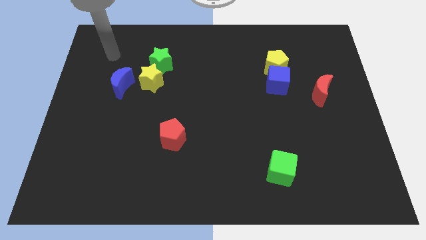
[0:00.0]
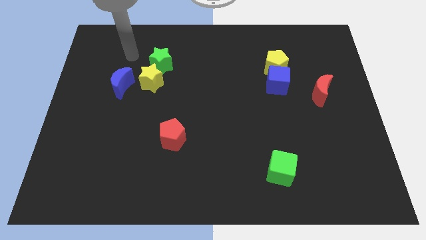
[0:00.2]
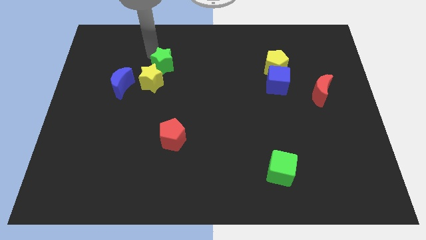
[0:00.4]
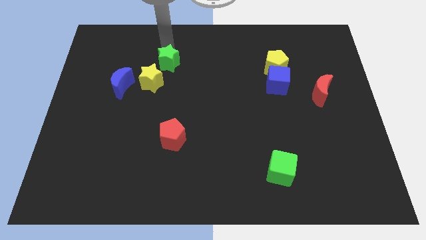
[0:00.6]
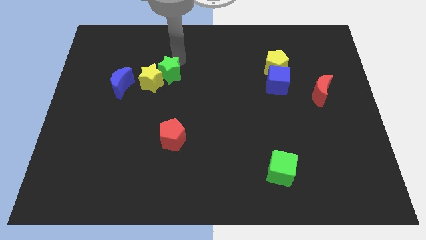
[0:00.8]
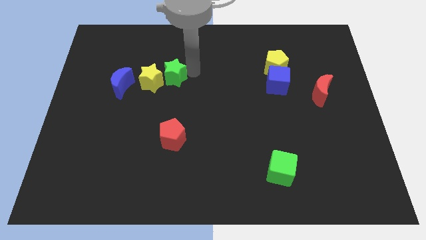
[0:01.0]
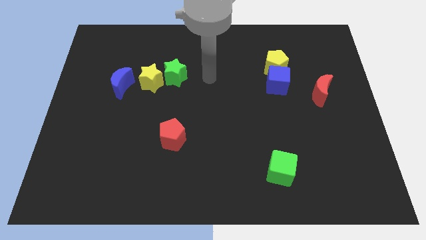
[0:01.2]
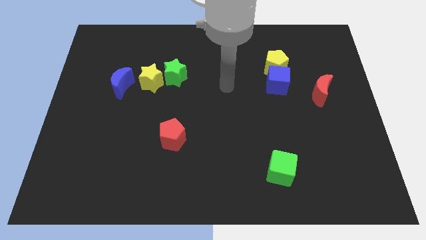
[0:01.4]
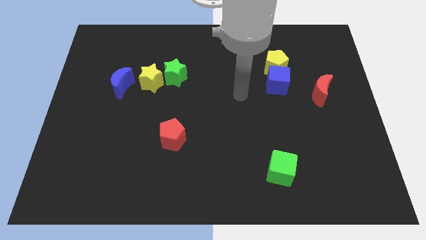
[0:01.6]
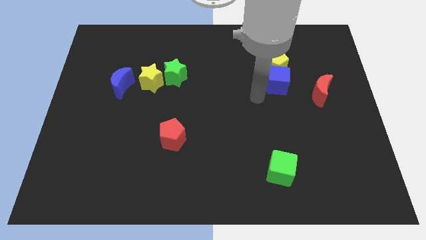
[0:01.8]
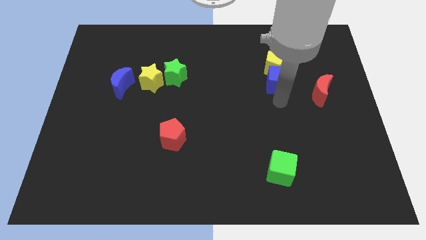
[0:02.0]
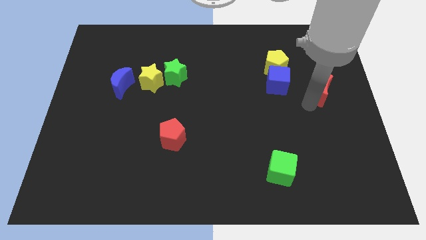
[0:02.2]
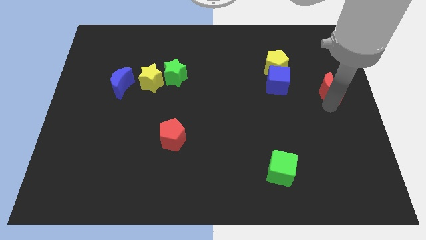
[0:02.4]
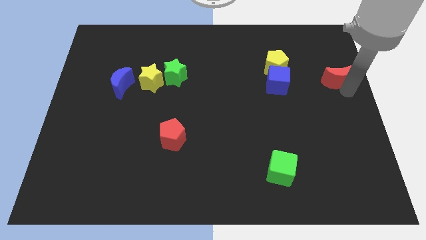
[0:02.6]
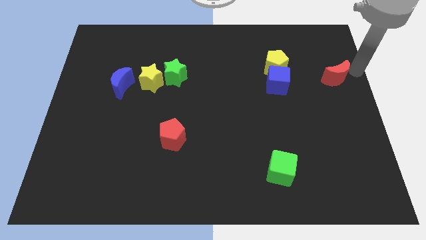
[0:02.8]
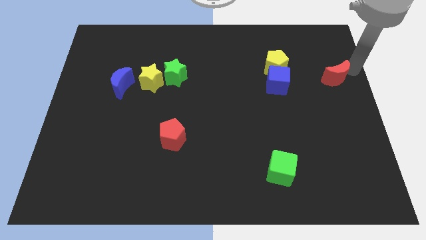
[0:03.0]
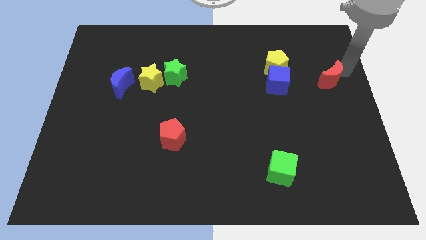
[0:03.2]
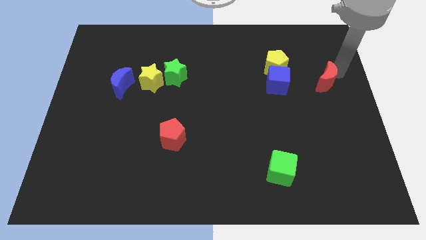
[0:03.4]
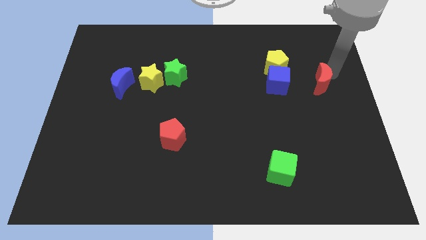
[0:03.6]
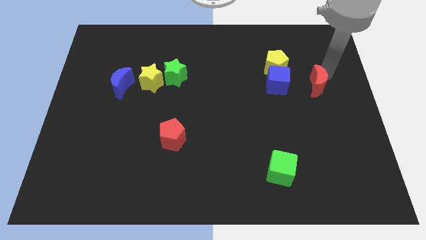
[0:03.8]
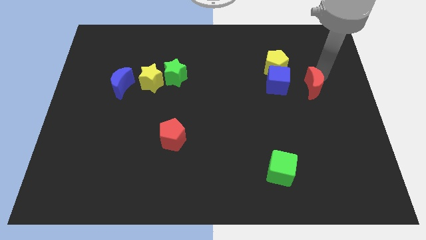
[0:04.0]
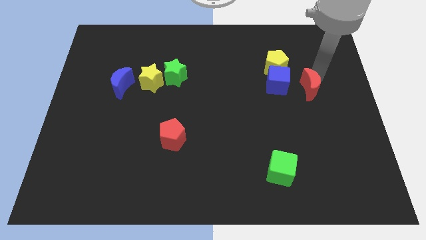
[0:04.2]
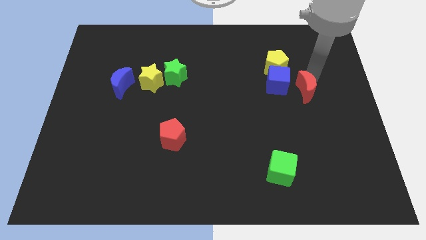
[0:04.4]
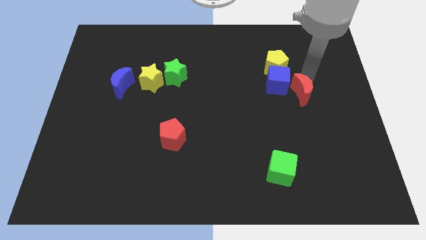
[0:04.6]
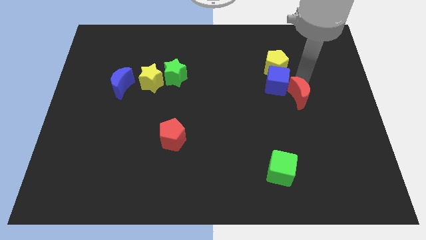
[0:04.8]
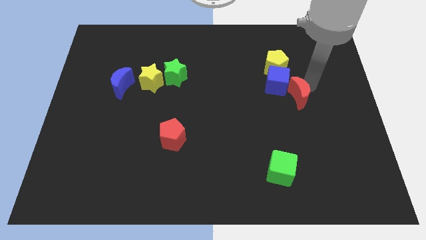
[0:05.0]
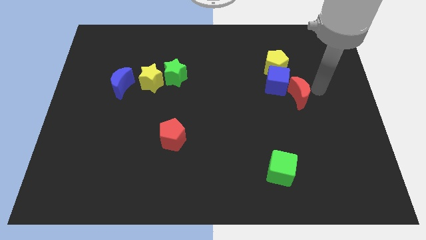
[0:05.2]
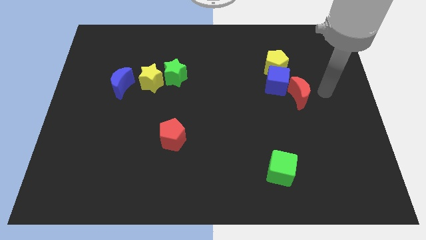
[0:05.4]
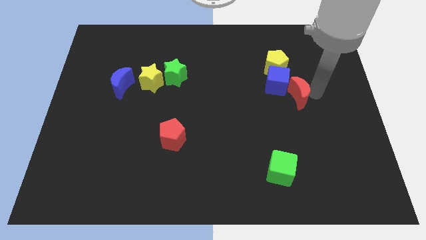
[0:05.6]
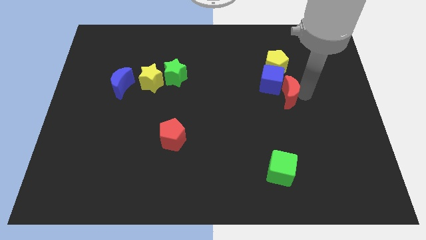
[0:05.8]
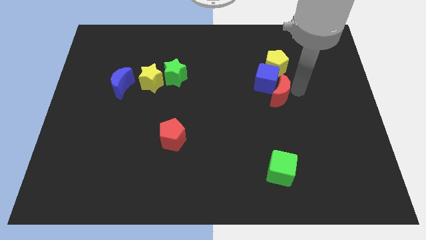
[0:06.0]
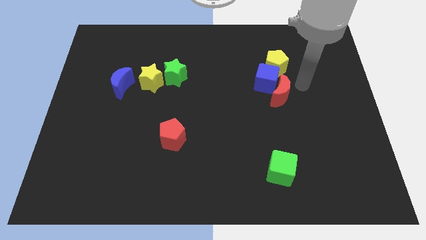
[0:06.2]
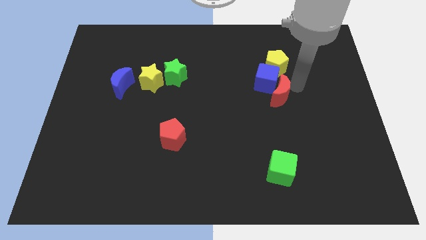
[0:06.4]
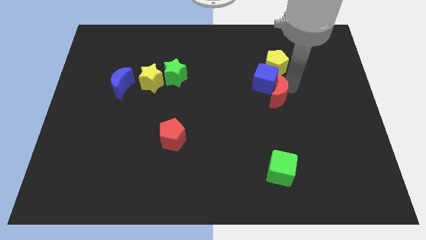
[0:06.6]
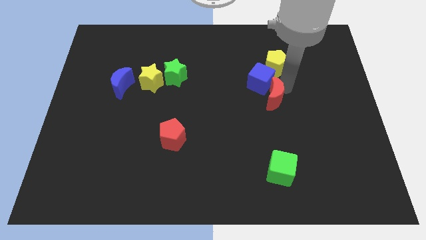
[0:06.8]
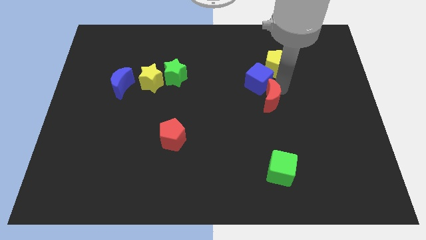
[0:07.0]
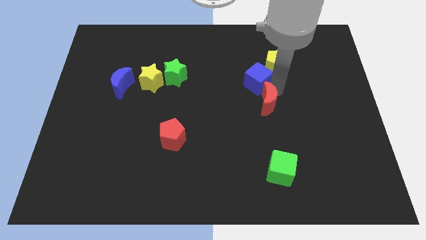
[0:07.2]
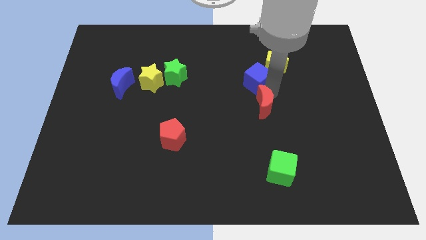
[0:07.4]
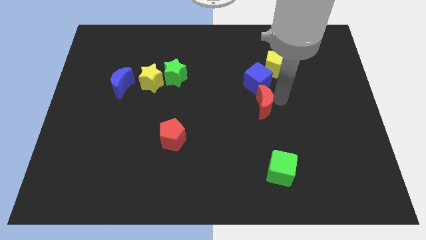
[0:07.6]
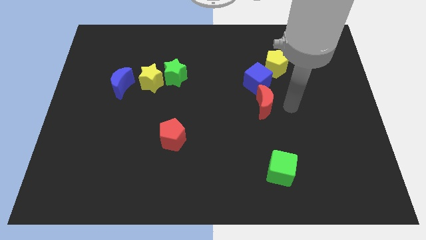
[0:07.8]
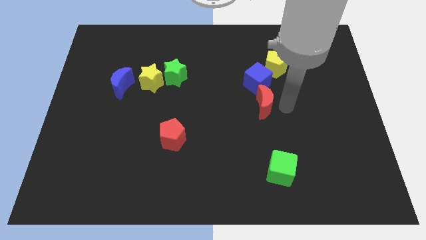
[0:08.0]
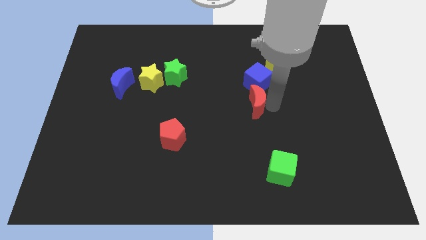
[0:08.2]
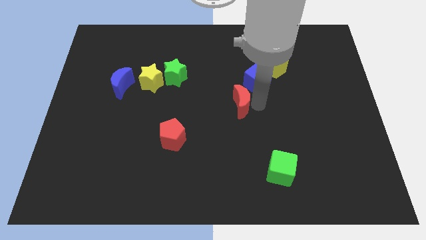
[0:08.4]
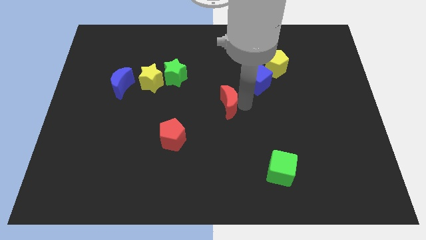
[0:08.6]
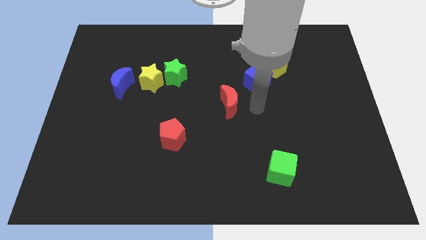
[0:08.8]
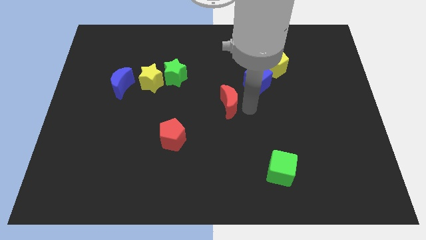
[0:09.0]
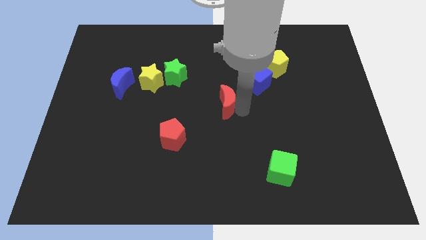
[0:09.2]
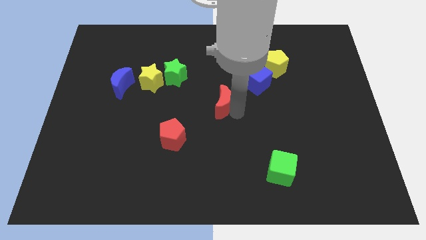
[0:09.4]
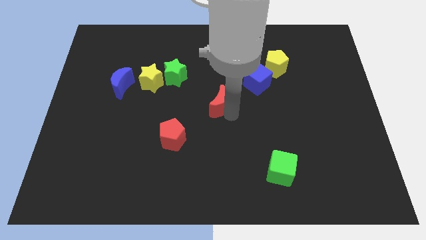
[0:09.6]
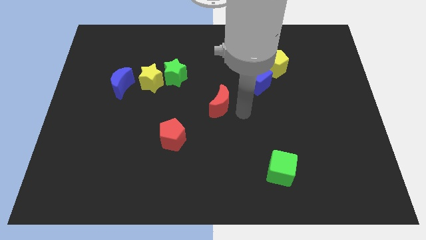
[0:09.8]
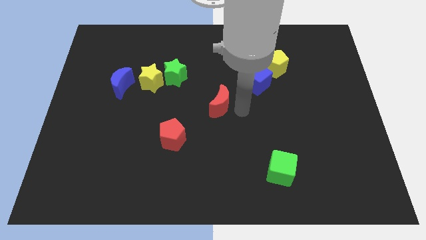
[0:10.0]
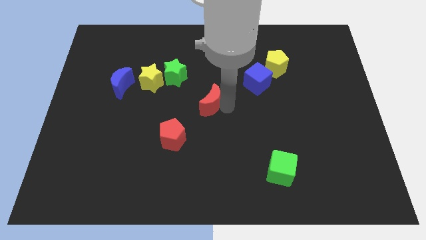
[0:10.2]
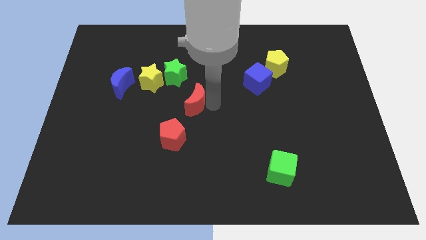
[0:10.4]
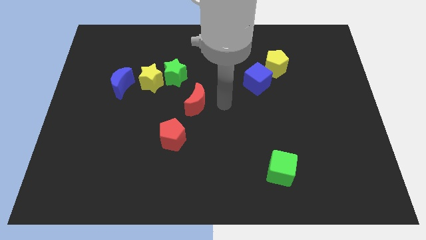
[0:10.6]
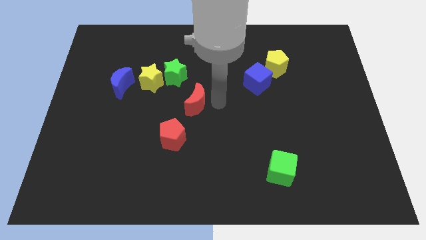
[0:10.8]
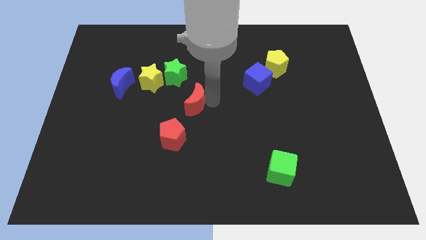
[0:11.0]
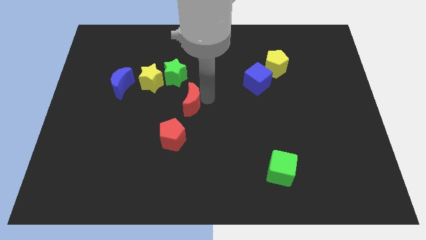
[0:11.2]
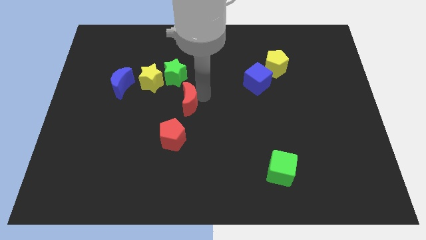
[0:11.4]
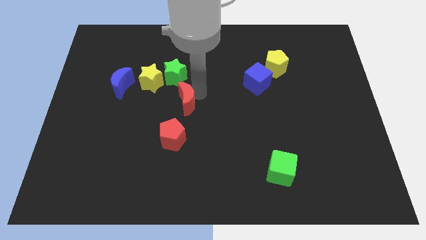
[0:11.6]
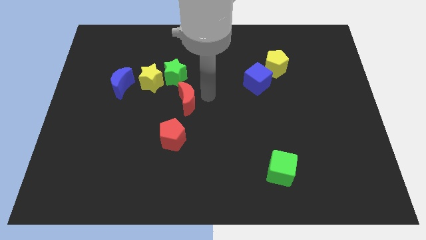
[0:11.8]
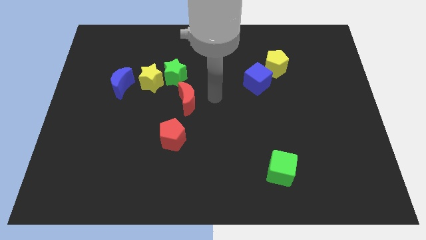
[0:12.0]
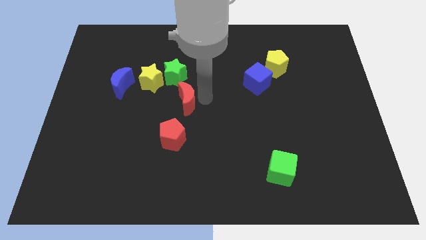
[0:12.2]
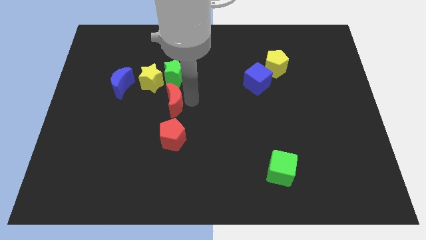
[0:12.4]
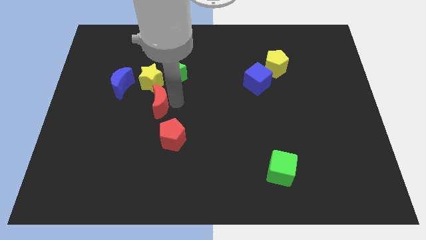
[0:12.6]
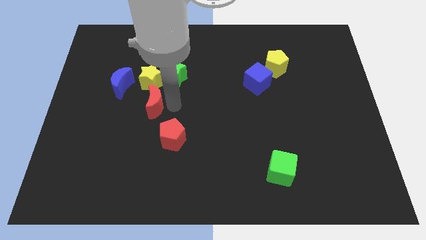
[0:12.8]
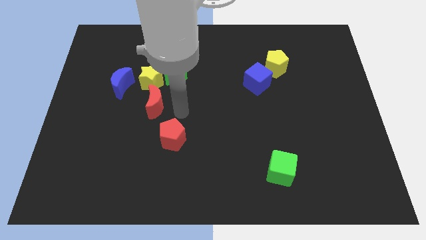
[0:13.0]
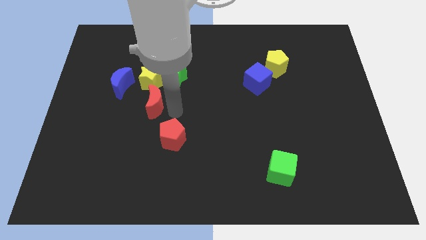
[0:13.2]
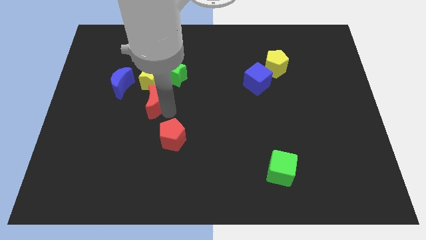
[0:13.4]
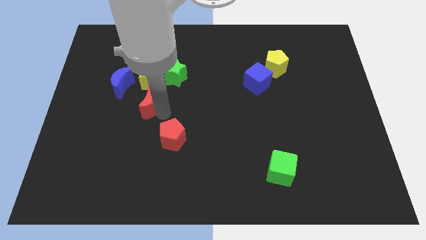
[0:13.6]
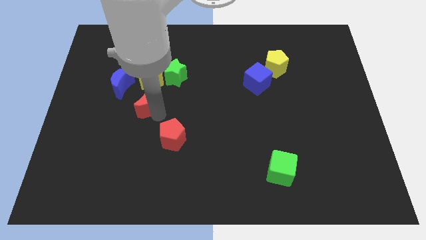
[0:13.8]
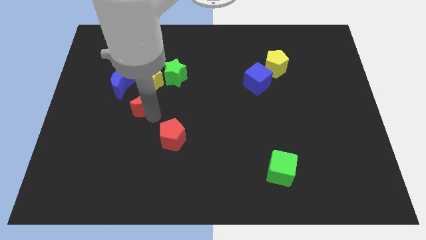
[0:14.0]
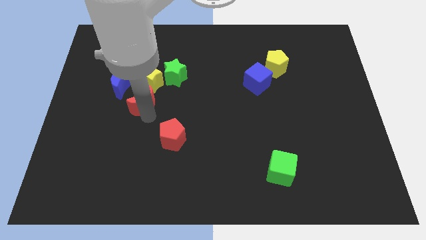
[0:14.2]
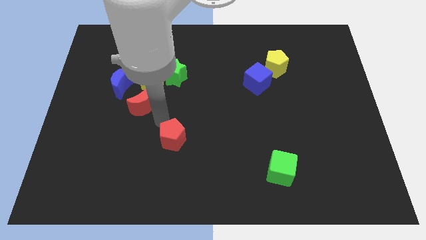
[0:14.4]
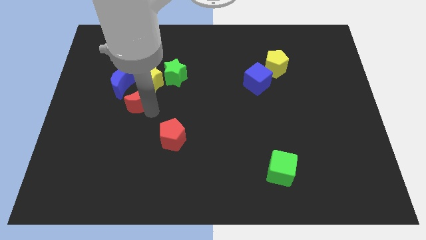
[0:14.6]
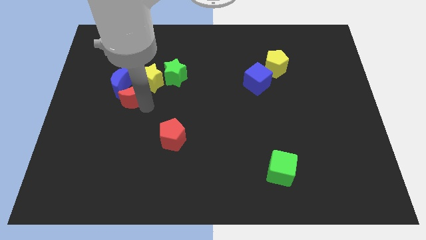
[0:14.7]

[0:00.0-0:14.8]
slide the red moon close to the blue moon

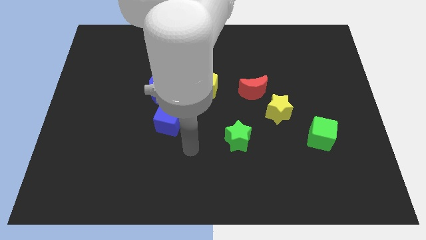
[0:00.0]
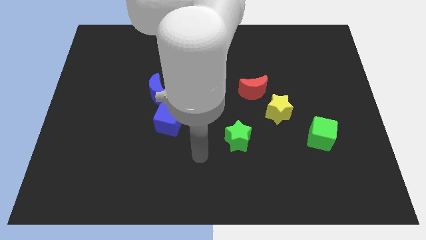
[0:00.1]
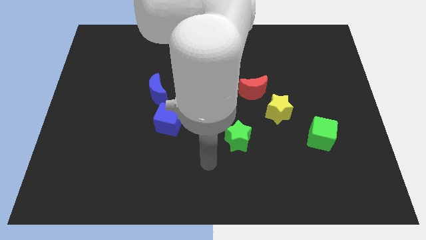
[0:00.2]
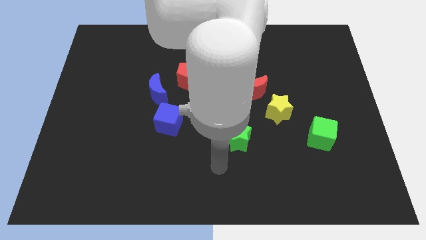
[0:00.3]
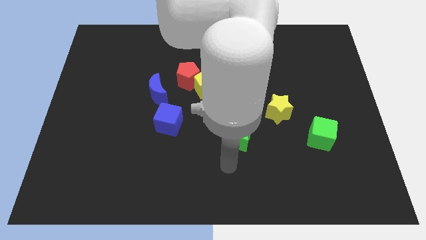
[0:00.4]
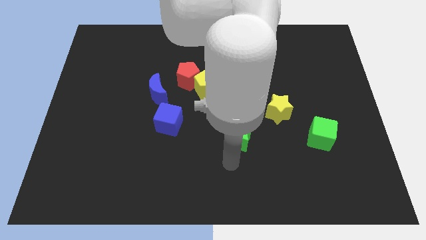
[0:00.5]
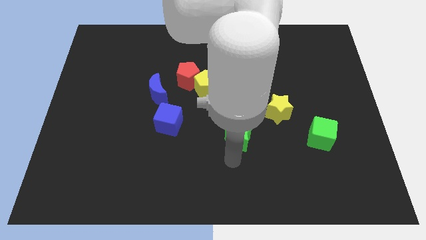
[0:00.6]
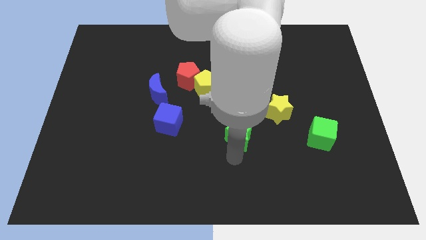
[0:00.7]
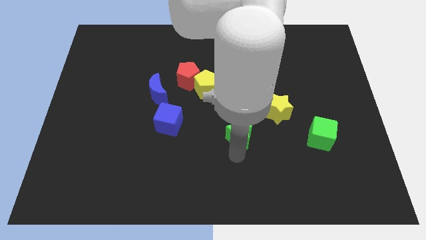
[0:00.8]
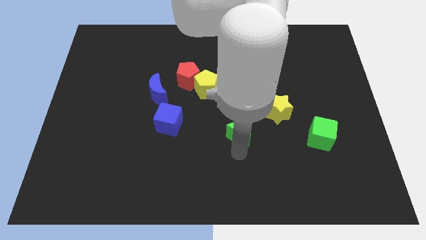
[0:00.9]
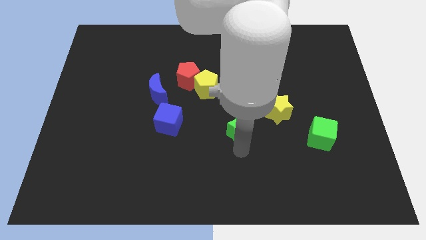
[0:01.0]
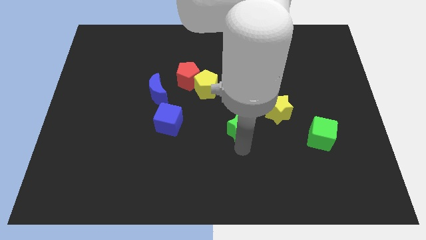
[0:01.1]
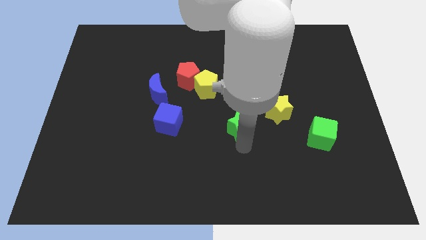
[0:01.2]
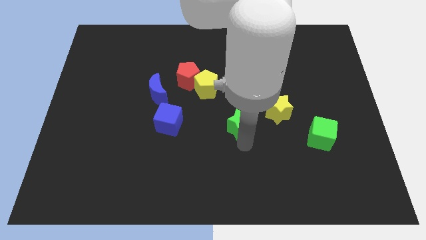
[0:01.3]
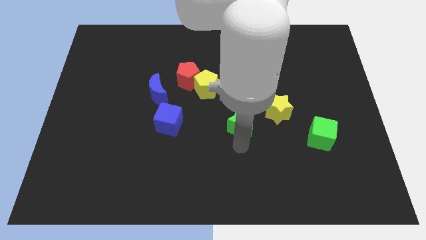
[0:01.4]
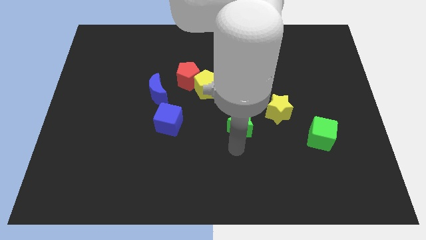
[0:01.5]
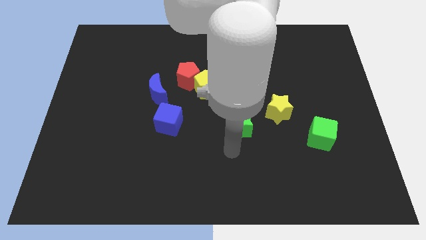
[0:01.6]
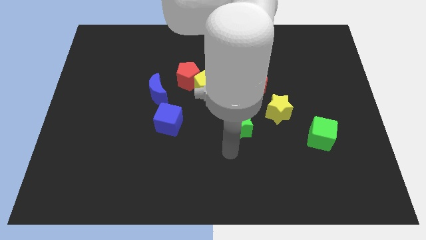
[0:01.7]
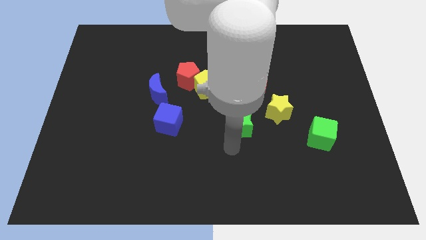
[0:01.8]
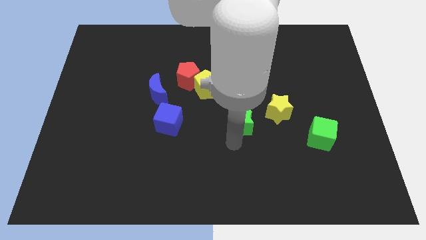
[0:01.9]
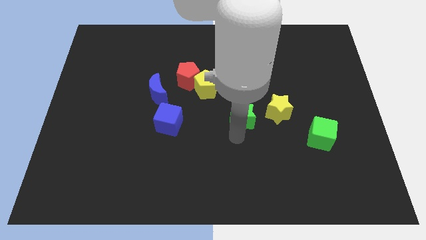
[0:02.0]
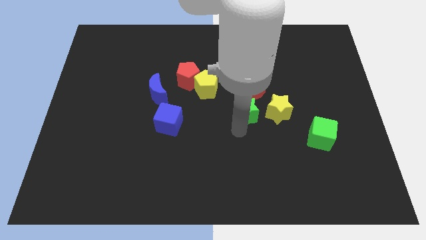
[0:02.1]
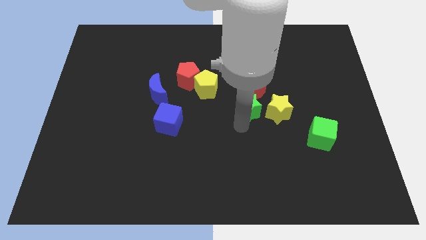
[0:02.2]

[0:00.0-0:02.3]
slide the green star close to the red moon
